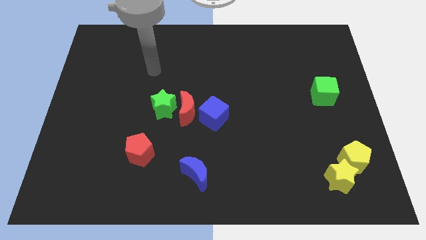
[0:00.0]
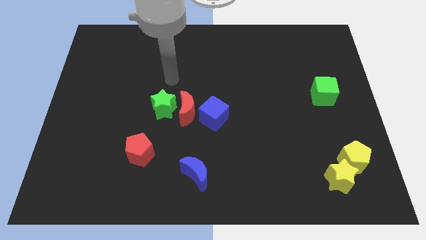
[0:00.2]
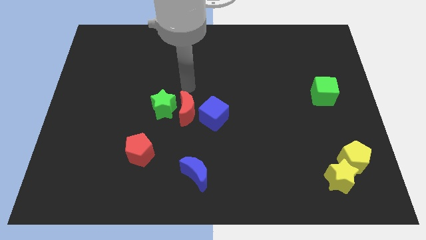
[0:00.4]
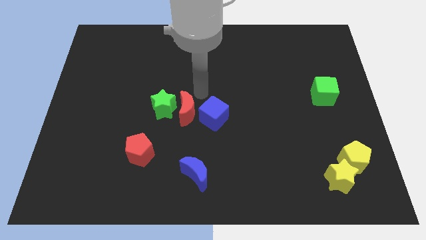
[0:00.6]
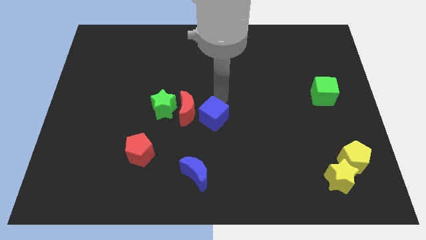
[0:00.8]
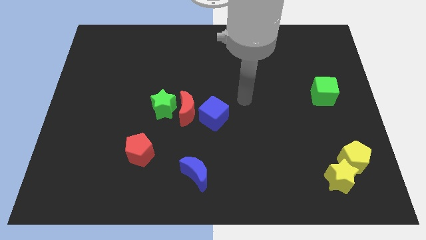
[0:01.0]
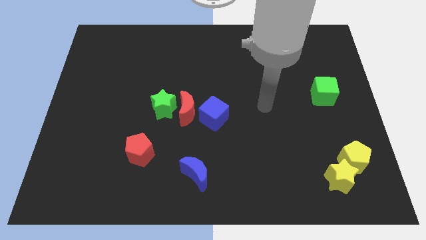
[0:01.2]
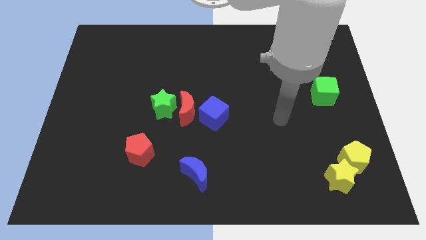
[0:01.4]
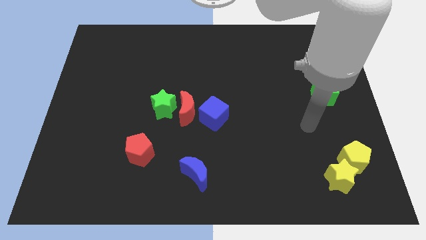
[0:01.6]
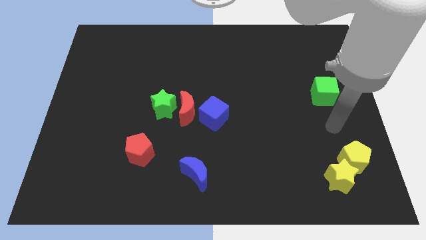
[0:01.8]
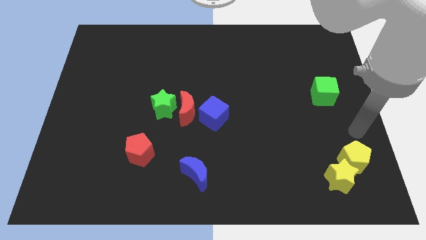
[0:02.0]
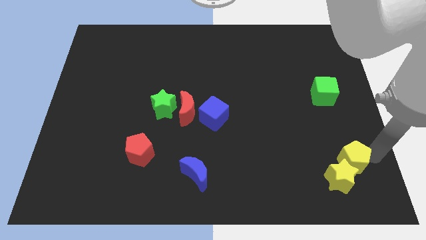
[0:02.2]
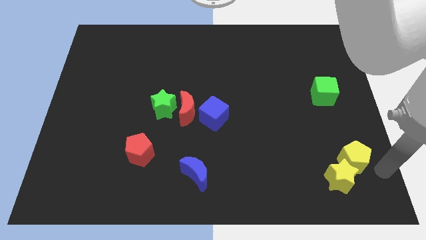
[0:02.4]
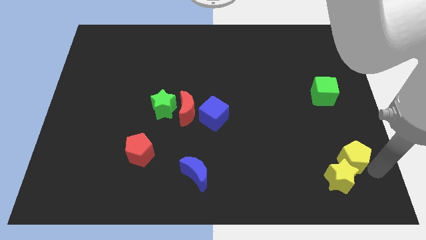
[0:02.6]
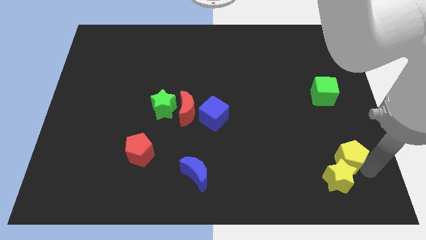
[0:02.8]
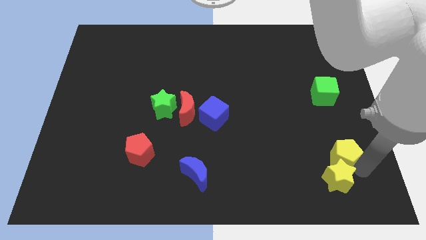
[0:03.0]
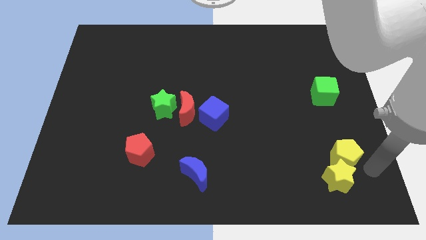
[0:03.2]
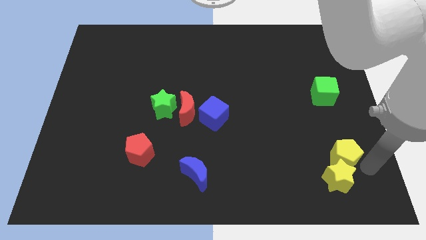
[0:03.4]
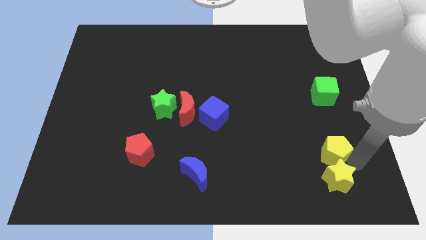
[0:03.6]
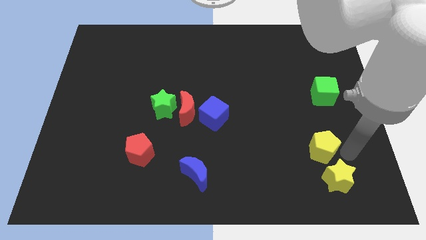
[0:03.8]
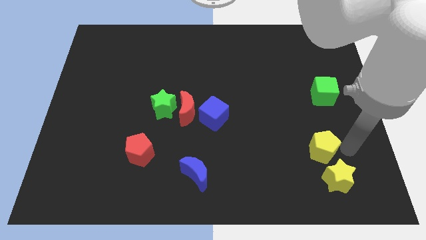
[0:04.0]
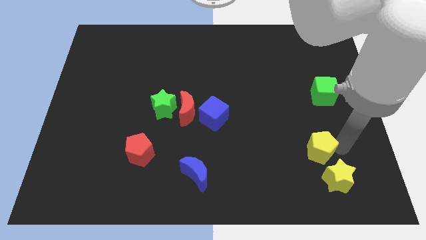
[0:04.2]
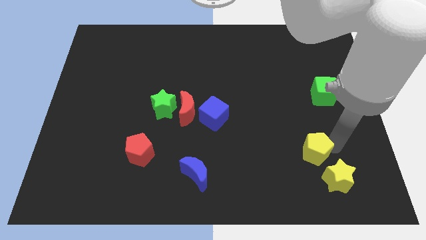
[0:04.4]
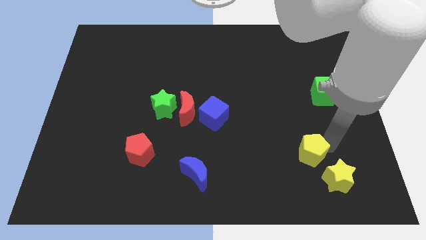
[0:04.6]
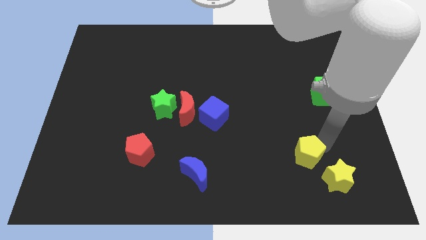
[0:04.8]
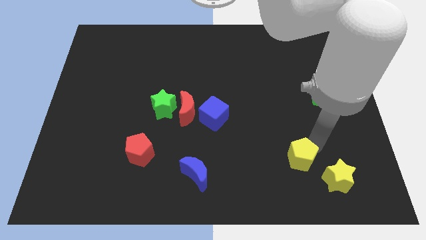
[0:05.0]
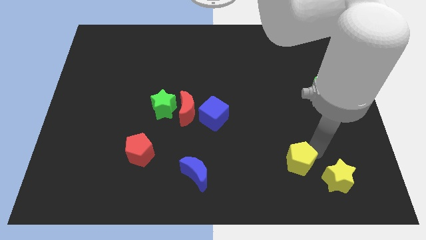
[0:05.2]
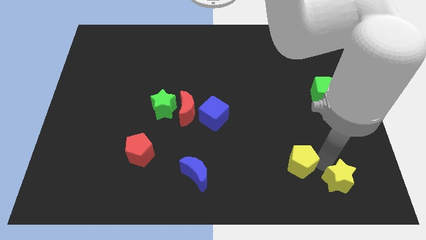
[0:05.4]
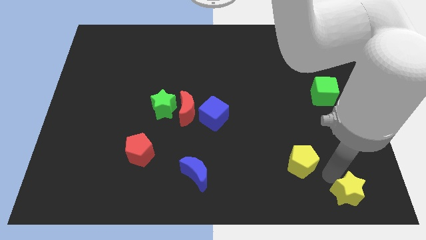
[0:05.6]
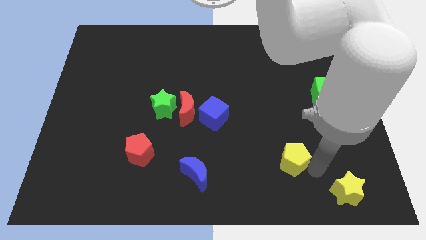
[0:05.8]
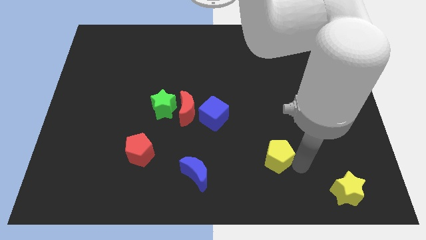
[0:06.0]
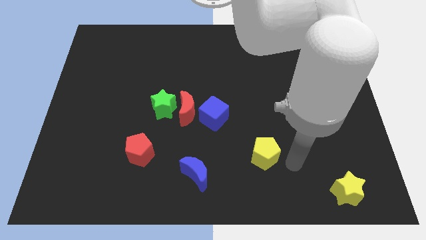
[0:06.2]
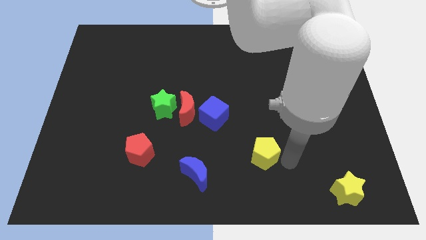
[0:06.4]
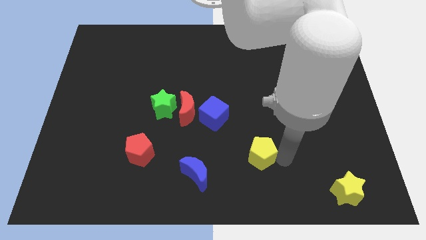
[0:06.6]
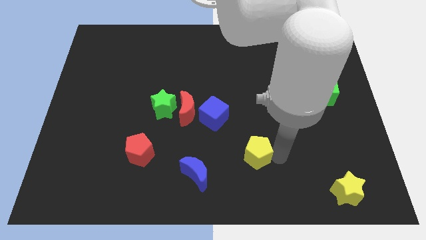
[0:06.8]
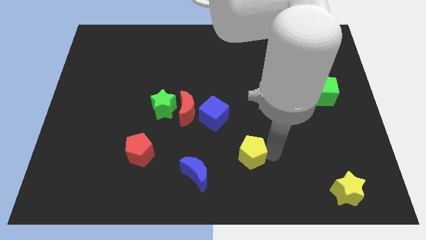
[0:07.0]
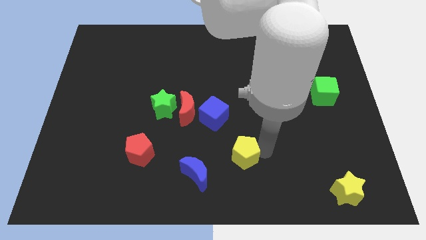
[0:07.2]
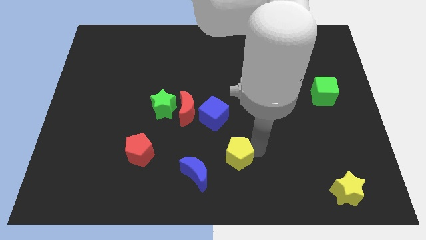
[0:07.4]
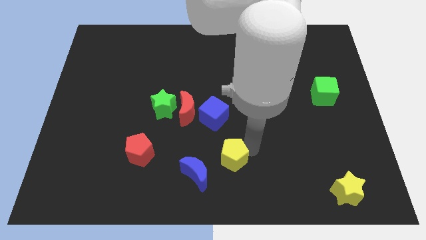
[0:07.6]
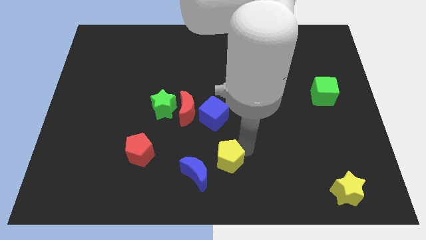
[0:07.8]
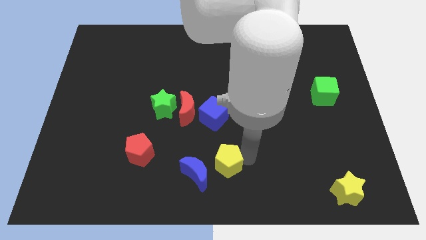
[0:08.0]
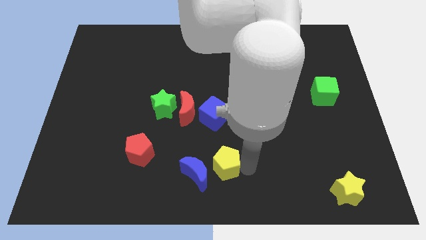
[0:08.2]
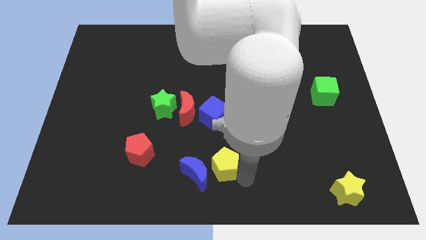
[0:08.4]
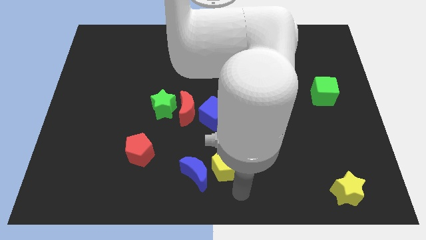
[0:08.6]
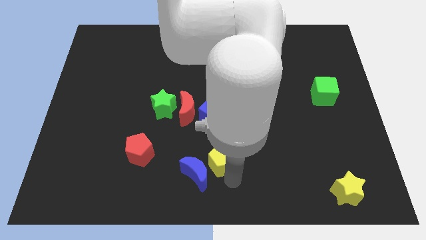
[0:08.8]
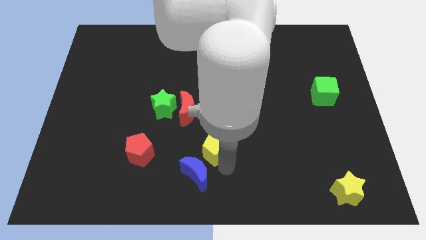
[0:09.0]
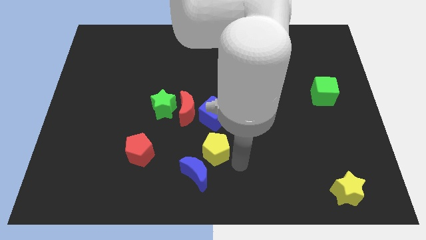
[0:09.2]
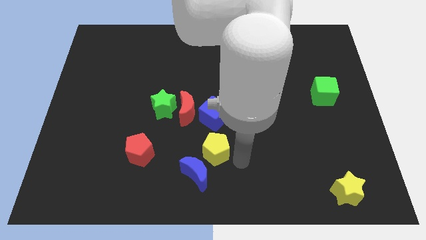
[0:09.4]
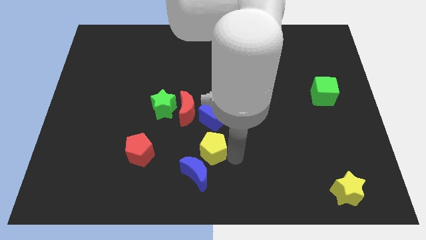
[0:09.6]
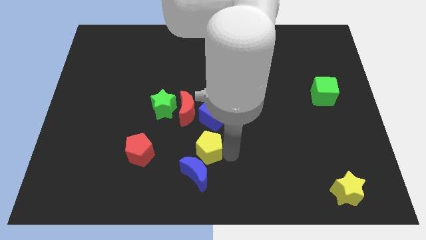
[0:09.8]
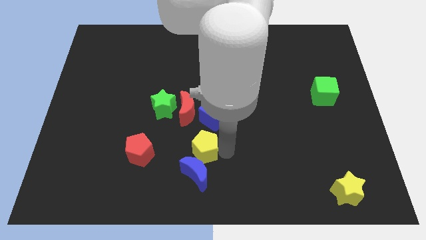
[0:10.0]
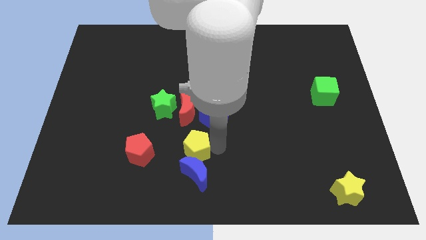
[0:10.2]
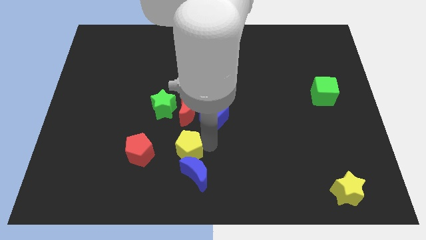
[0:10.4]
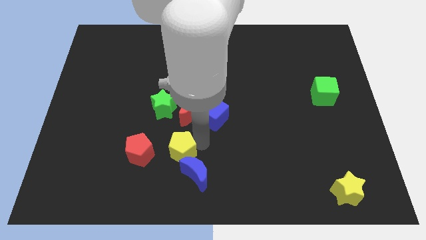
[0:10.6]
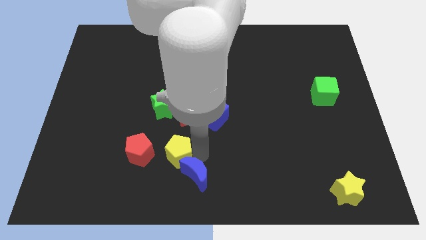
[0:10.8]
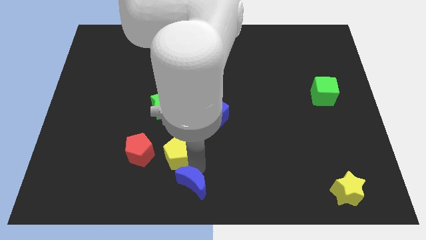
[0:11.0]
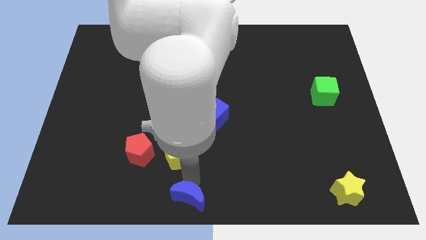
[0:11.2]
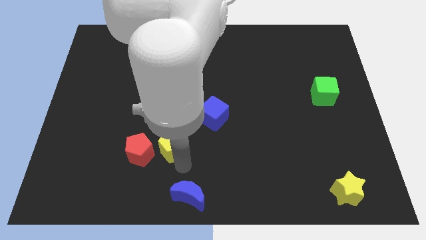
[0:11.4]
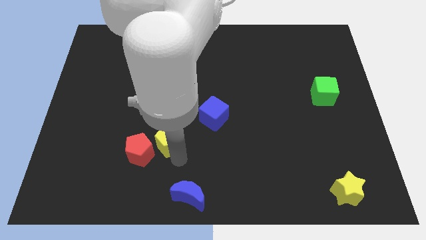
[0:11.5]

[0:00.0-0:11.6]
push the yellow pentagon to the bottom left side of the red moon

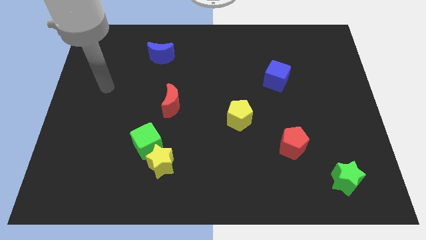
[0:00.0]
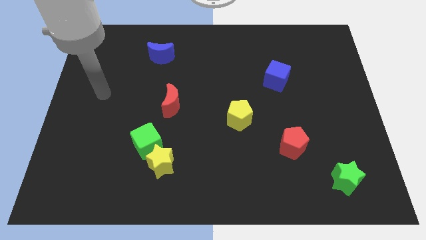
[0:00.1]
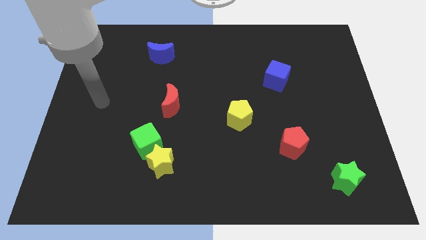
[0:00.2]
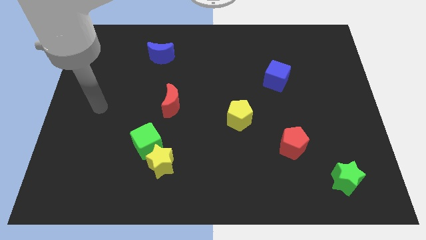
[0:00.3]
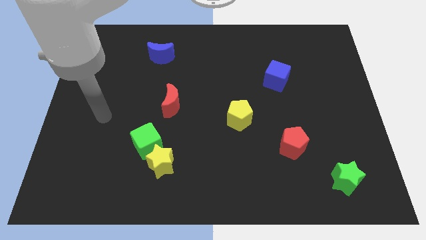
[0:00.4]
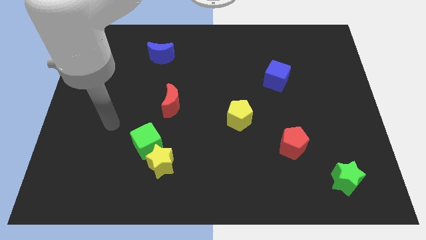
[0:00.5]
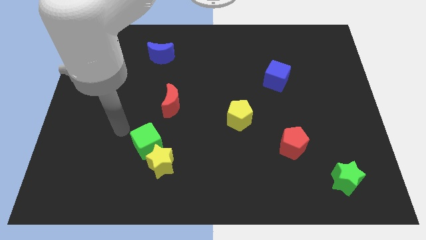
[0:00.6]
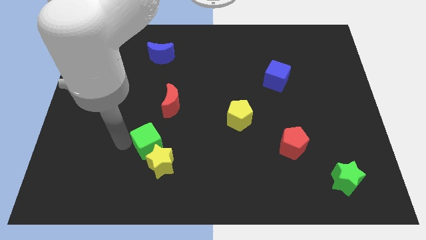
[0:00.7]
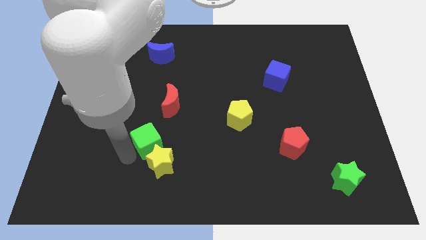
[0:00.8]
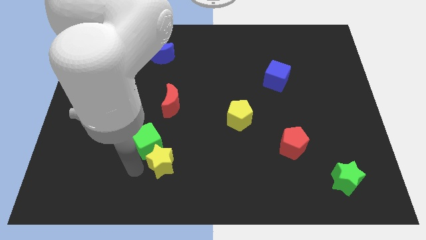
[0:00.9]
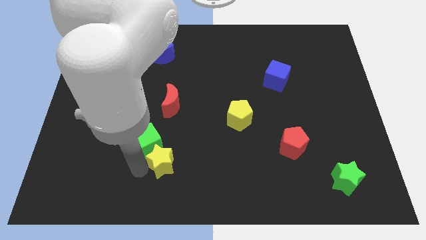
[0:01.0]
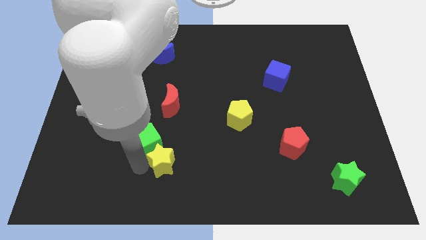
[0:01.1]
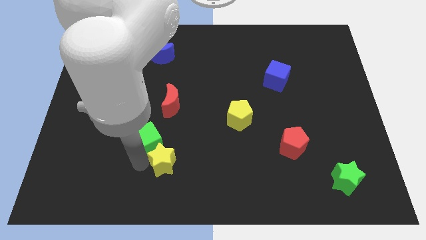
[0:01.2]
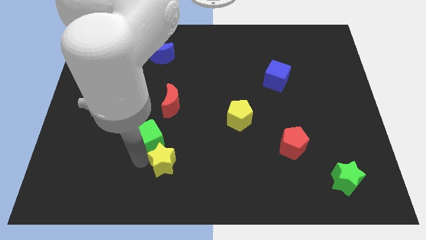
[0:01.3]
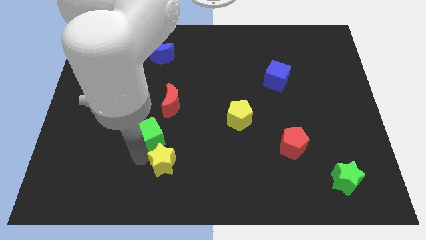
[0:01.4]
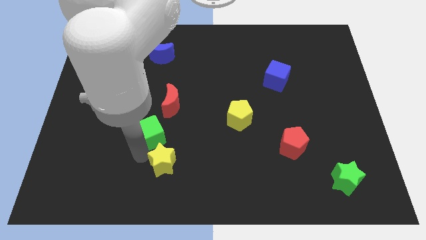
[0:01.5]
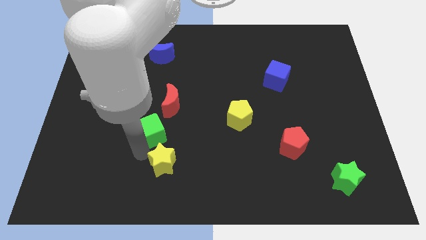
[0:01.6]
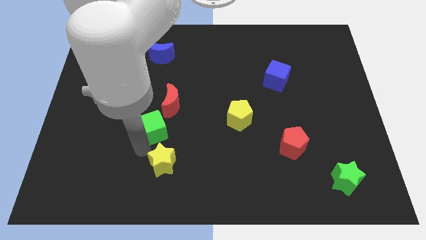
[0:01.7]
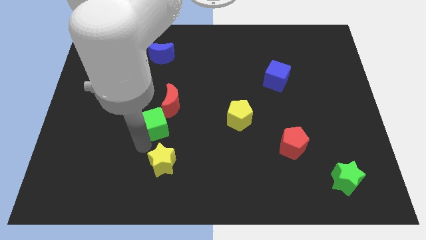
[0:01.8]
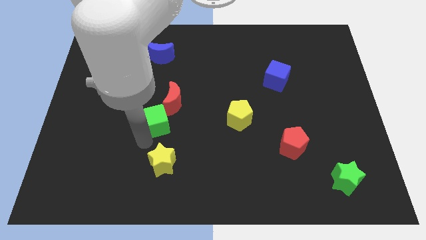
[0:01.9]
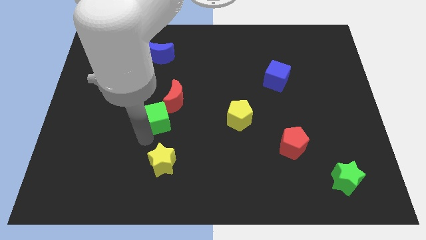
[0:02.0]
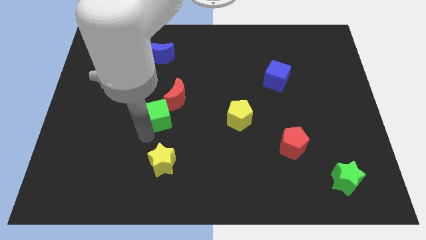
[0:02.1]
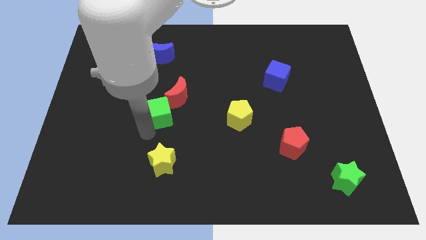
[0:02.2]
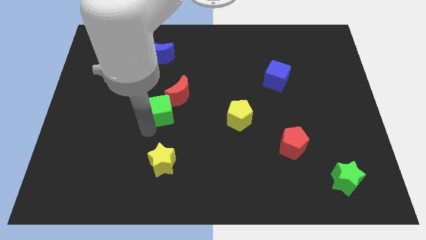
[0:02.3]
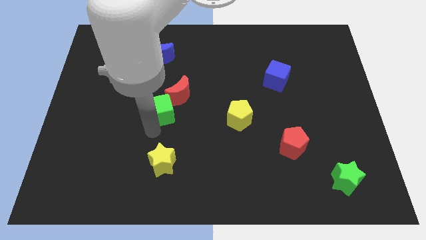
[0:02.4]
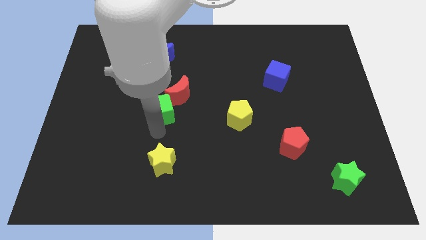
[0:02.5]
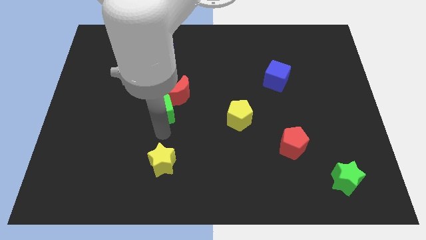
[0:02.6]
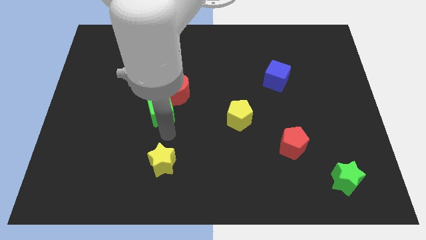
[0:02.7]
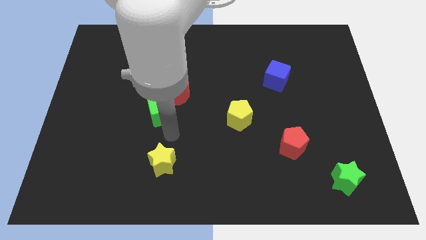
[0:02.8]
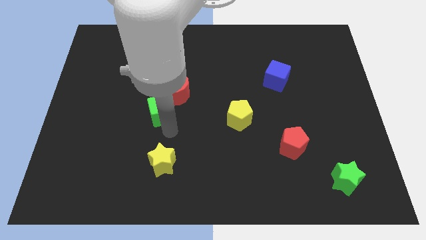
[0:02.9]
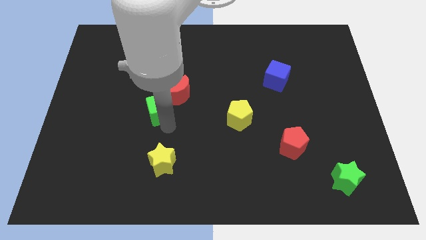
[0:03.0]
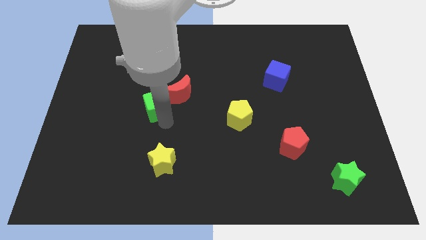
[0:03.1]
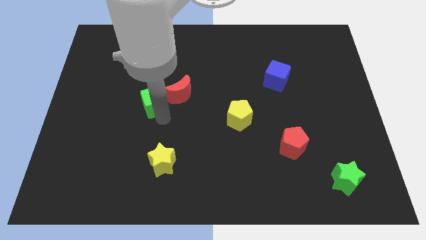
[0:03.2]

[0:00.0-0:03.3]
push the green cube below the blue moon
